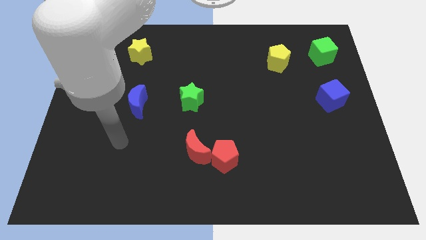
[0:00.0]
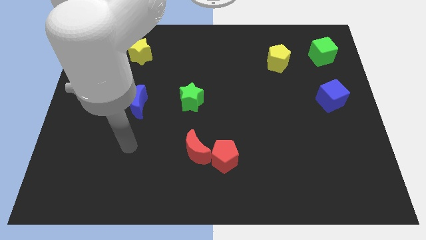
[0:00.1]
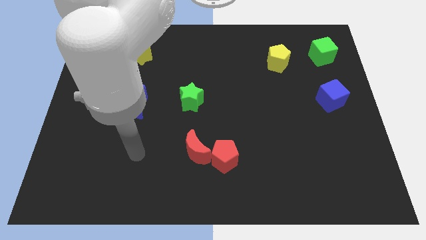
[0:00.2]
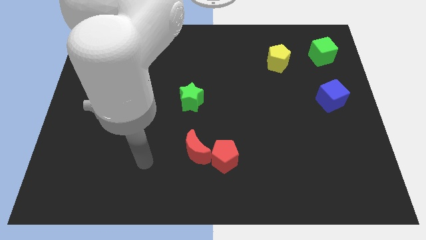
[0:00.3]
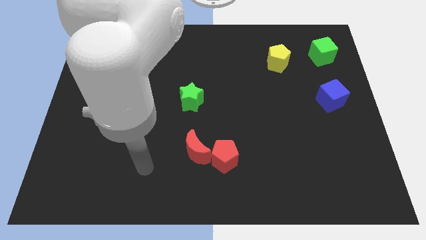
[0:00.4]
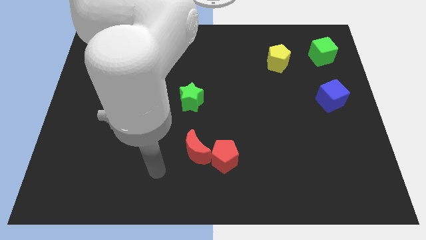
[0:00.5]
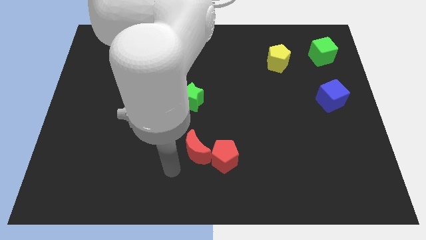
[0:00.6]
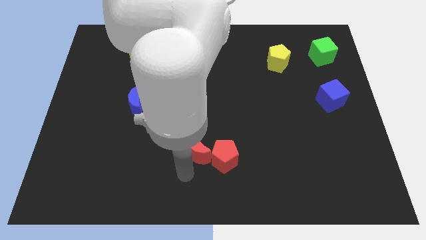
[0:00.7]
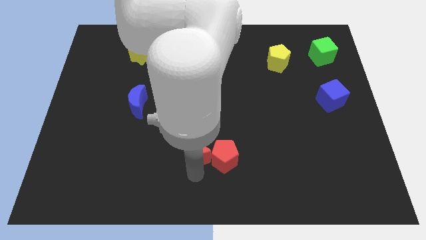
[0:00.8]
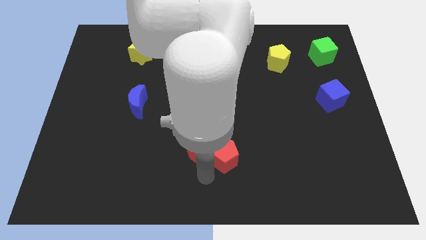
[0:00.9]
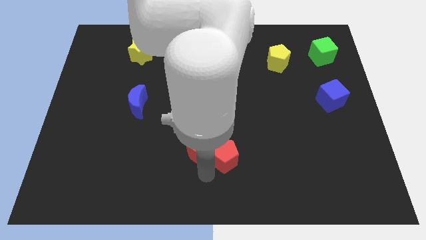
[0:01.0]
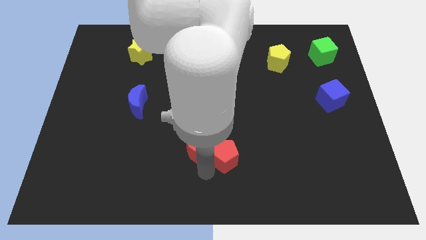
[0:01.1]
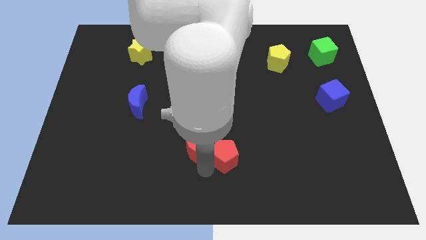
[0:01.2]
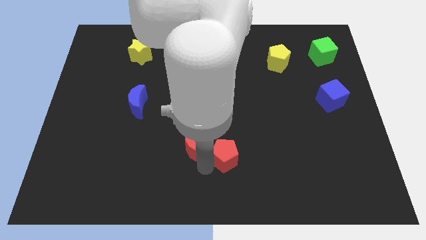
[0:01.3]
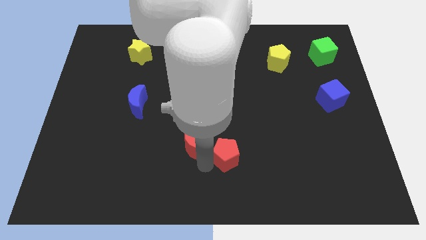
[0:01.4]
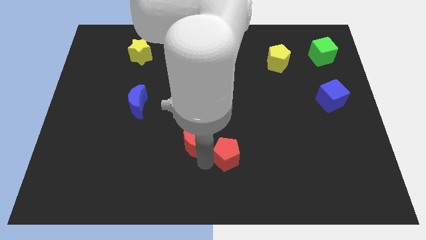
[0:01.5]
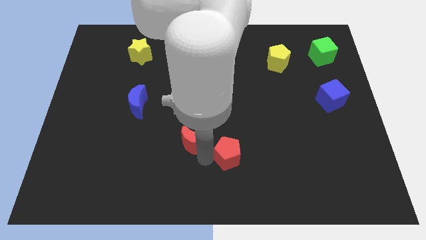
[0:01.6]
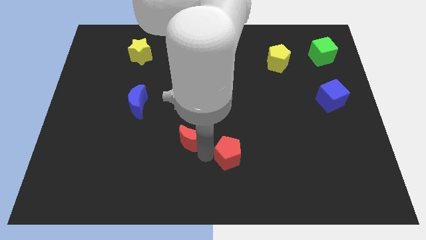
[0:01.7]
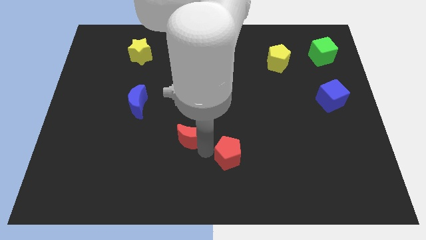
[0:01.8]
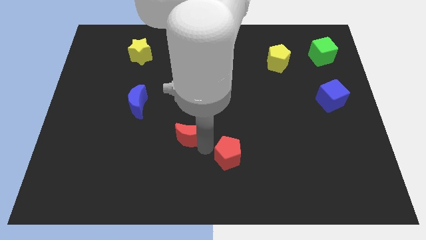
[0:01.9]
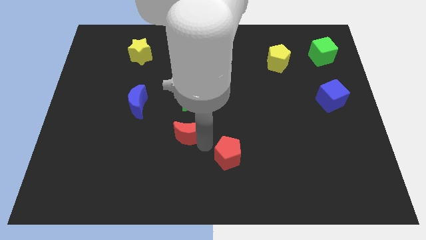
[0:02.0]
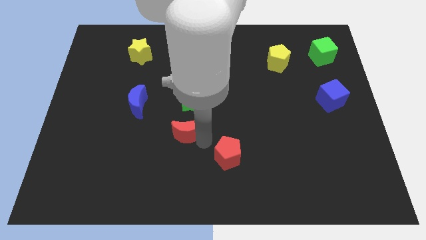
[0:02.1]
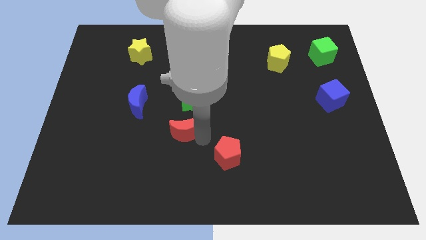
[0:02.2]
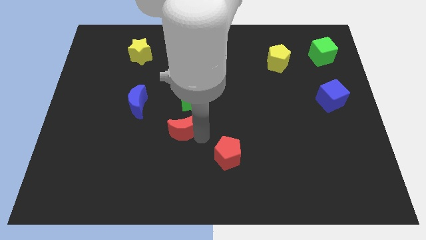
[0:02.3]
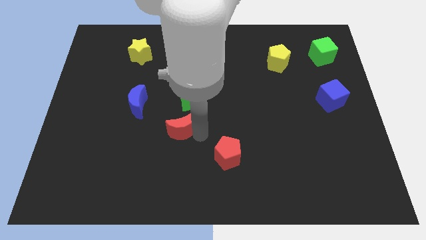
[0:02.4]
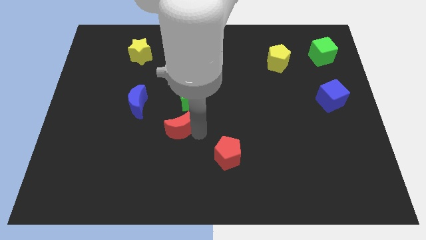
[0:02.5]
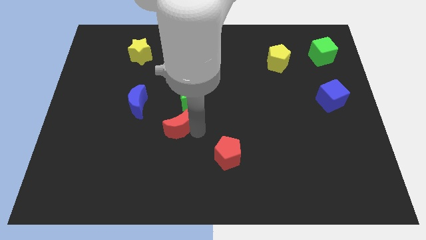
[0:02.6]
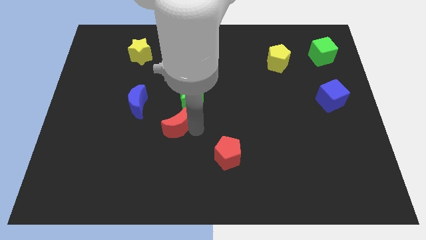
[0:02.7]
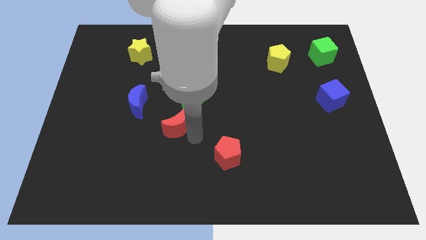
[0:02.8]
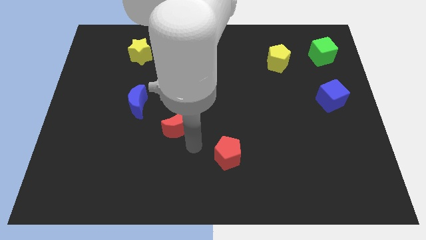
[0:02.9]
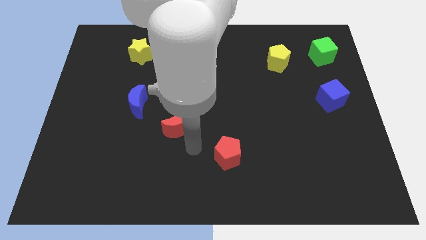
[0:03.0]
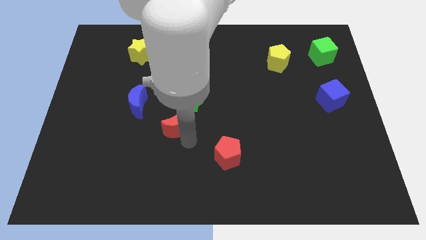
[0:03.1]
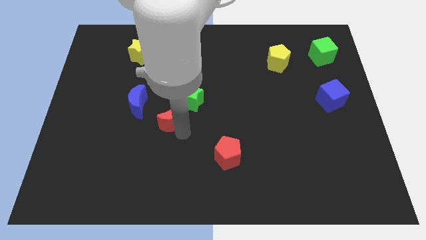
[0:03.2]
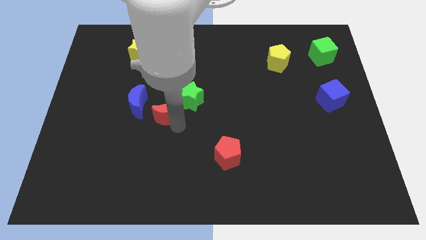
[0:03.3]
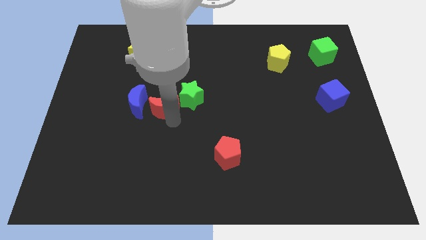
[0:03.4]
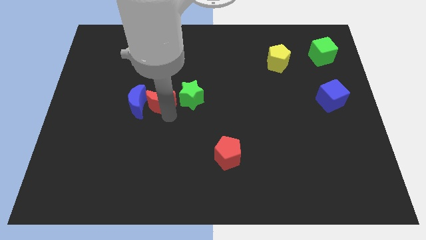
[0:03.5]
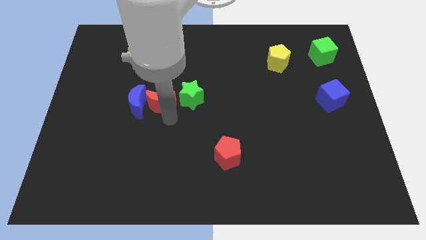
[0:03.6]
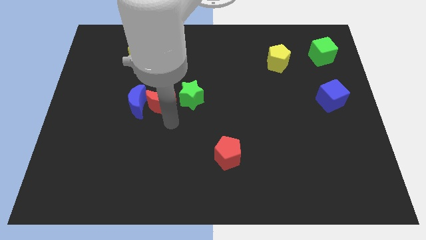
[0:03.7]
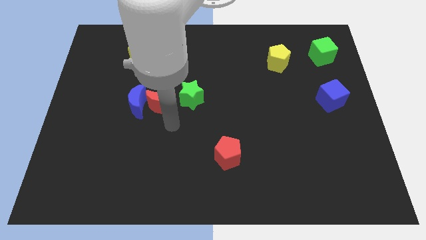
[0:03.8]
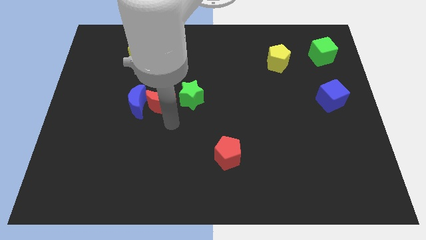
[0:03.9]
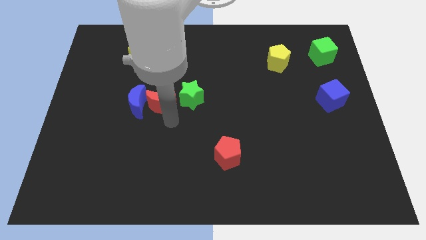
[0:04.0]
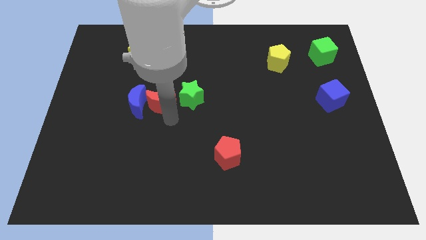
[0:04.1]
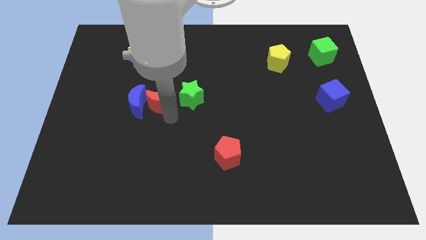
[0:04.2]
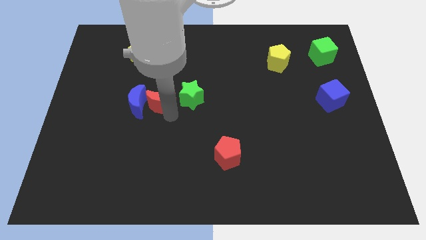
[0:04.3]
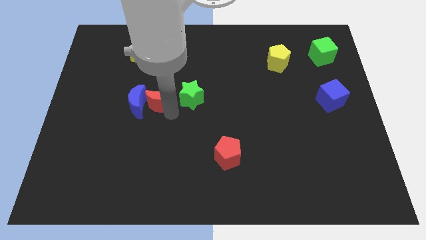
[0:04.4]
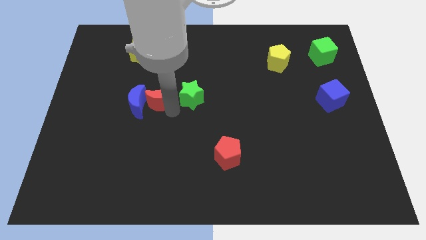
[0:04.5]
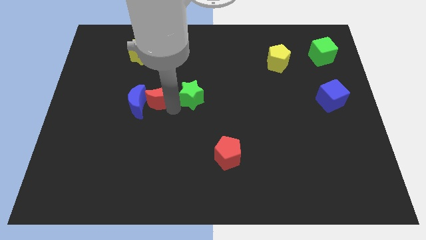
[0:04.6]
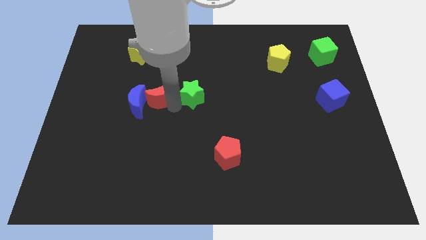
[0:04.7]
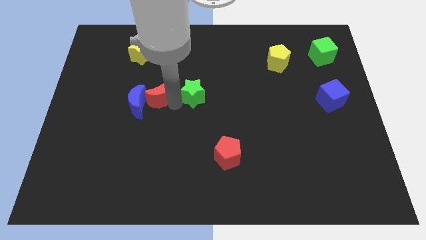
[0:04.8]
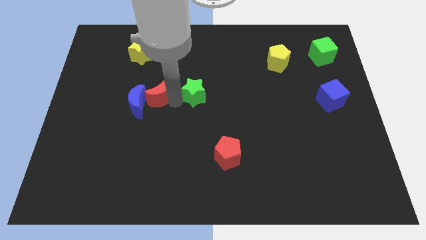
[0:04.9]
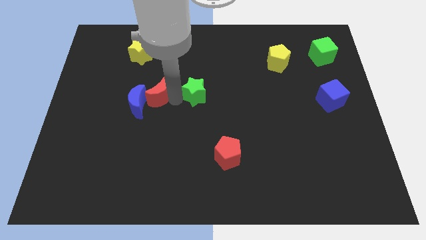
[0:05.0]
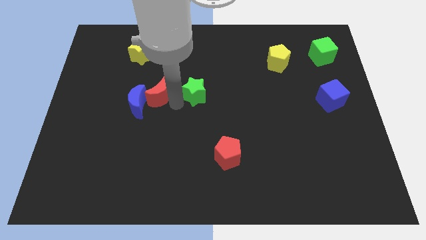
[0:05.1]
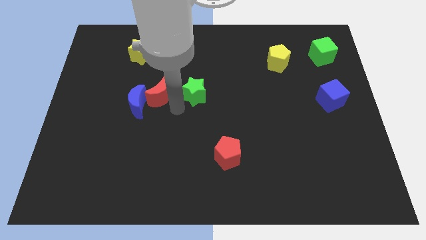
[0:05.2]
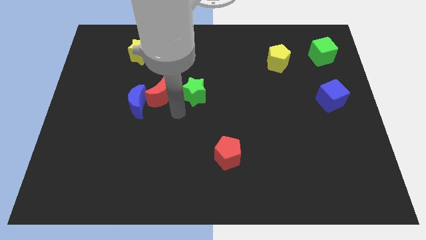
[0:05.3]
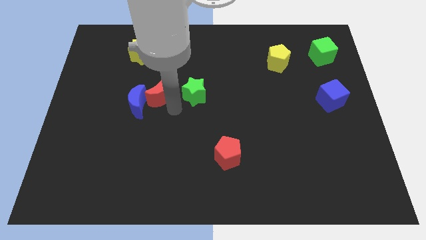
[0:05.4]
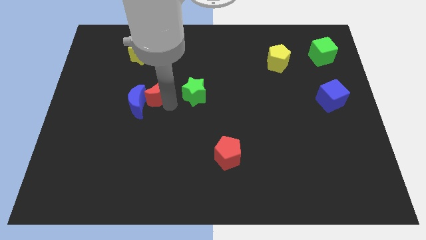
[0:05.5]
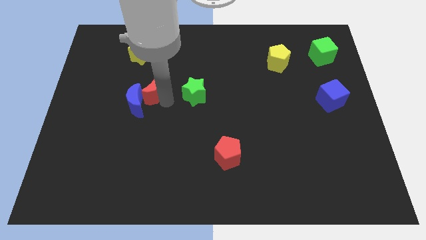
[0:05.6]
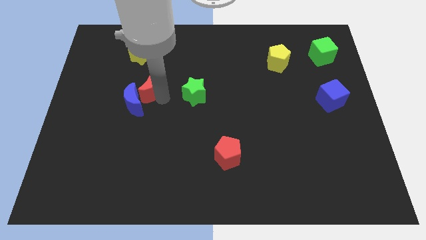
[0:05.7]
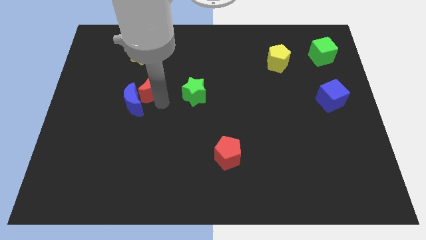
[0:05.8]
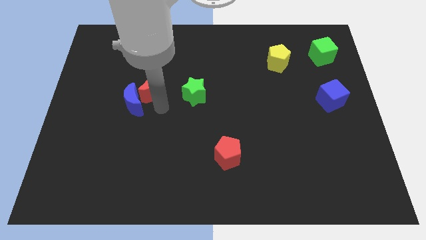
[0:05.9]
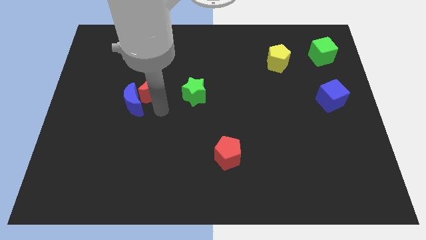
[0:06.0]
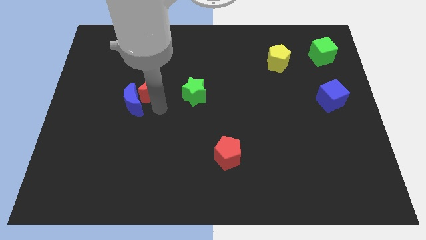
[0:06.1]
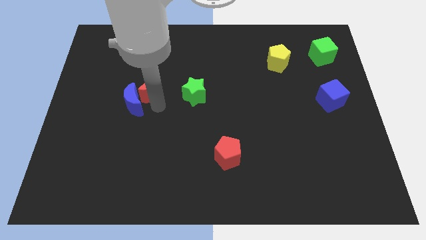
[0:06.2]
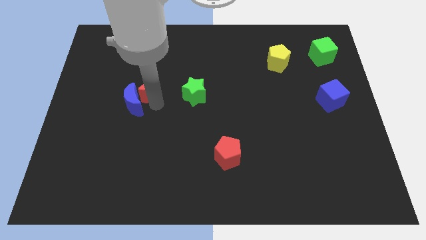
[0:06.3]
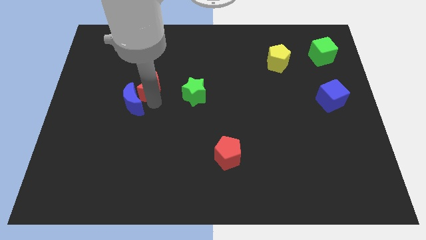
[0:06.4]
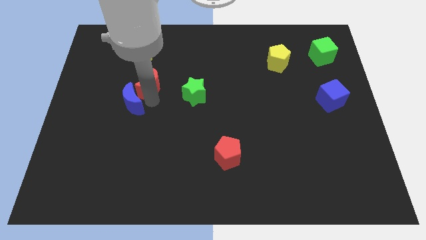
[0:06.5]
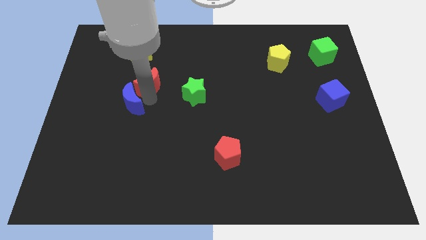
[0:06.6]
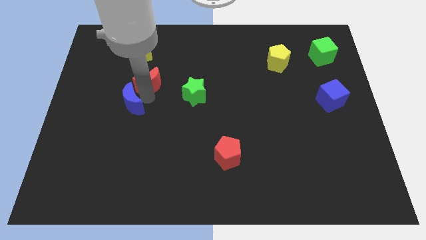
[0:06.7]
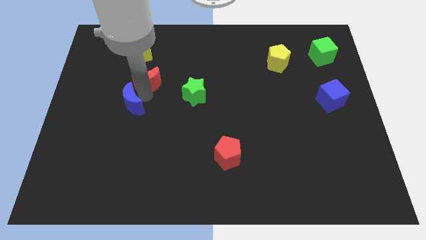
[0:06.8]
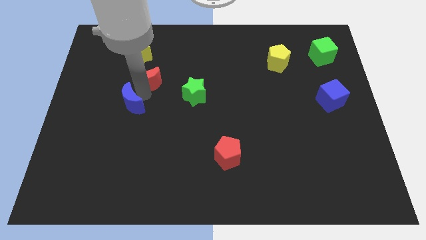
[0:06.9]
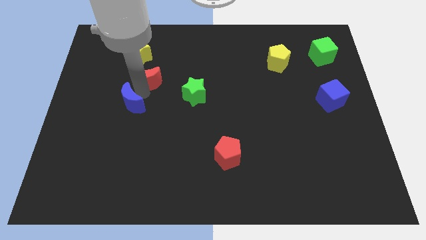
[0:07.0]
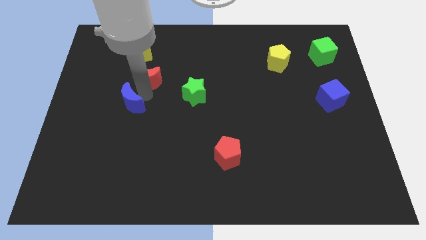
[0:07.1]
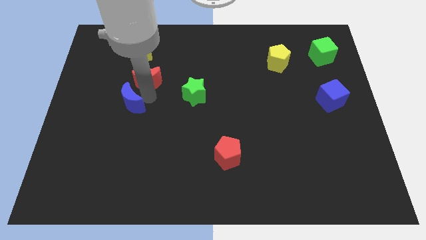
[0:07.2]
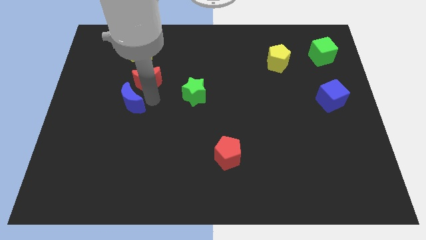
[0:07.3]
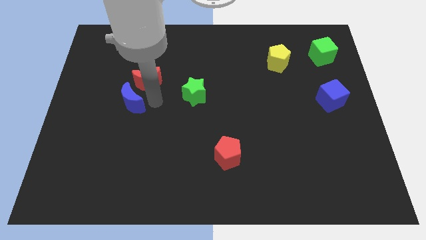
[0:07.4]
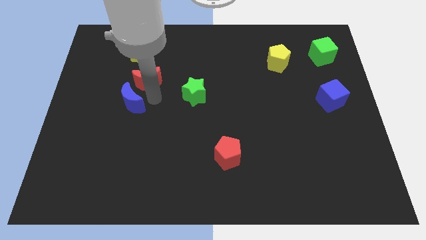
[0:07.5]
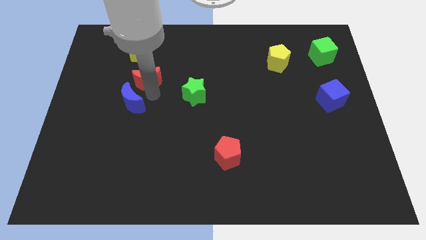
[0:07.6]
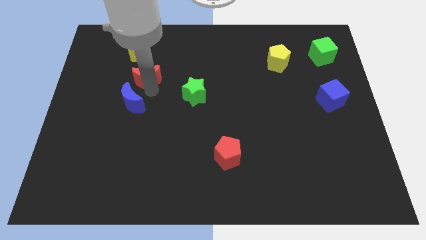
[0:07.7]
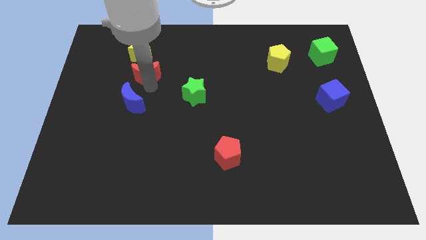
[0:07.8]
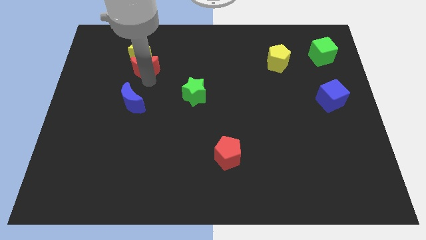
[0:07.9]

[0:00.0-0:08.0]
push the red moon next to the yellow star

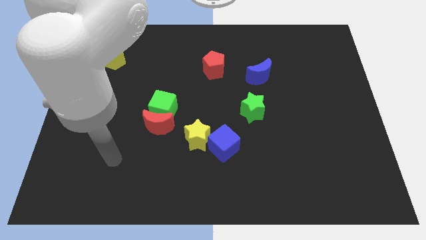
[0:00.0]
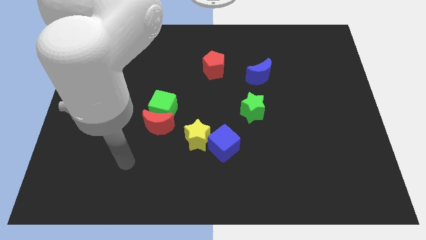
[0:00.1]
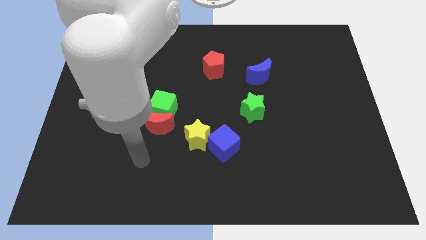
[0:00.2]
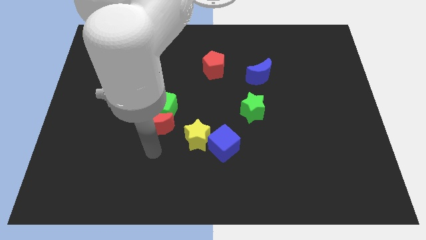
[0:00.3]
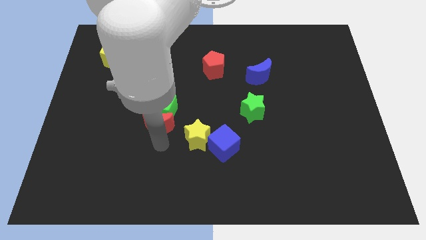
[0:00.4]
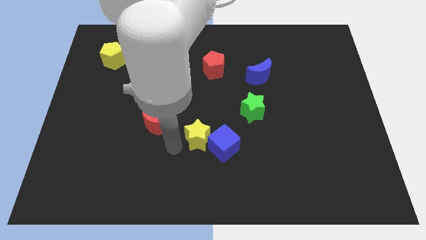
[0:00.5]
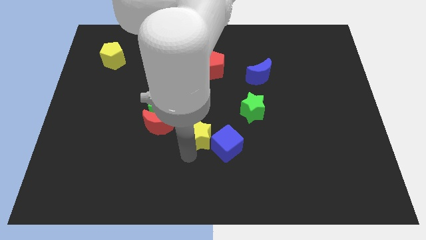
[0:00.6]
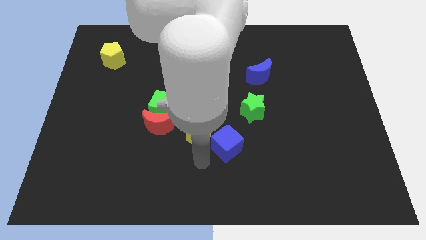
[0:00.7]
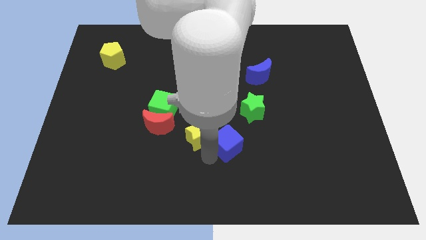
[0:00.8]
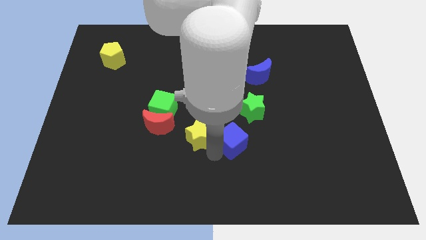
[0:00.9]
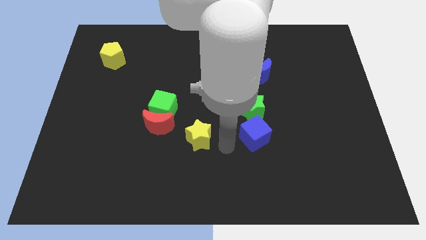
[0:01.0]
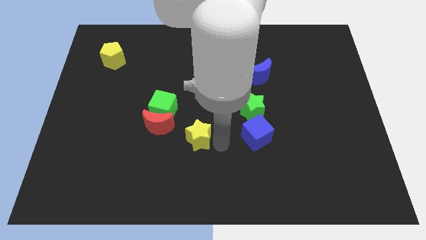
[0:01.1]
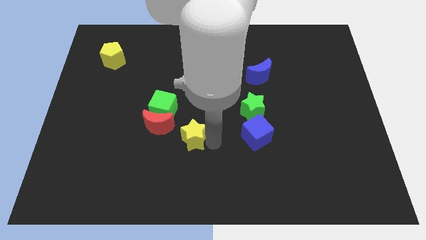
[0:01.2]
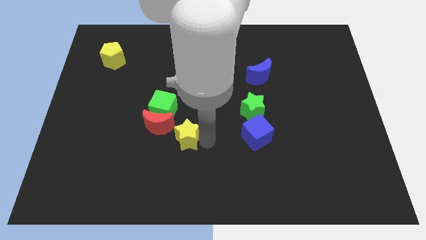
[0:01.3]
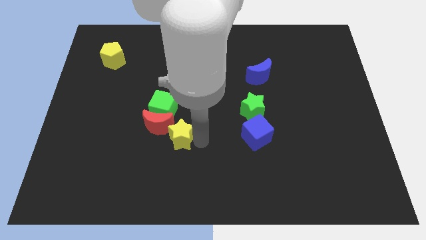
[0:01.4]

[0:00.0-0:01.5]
put the yellow star next to the red moon
